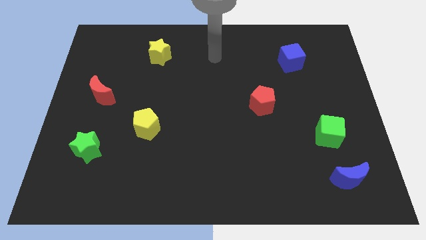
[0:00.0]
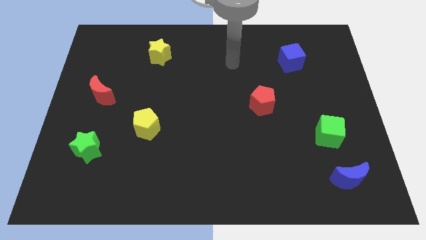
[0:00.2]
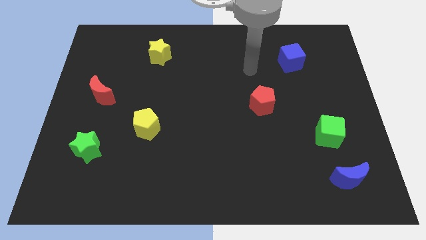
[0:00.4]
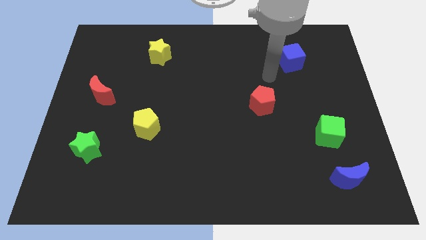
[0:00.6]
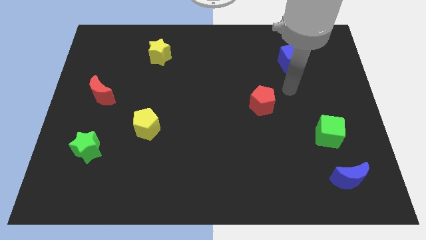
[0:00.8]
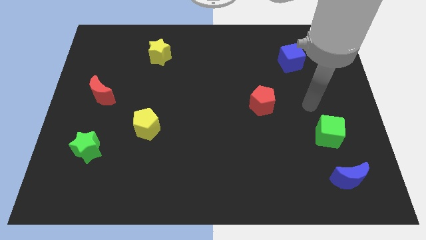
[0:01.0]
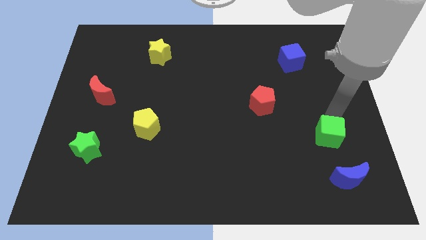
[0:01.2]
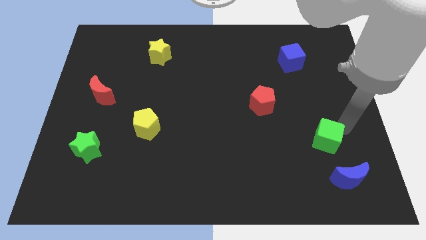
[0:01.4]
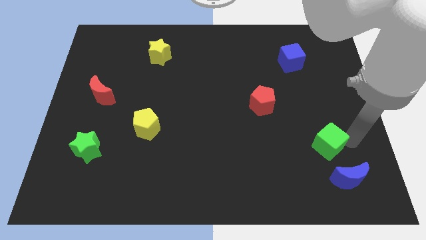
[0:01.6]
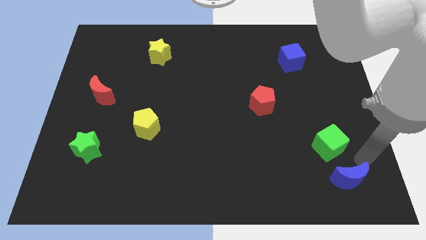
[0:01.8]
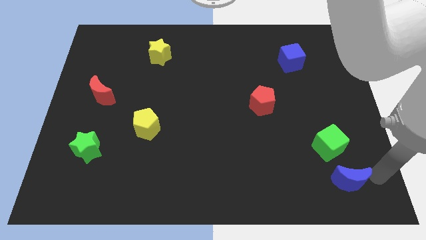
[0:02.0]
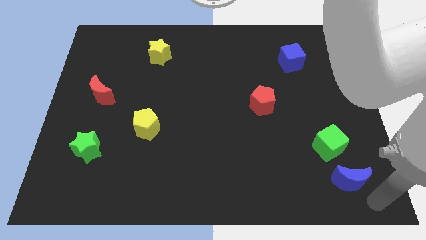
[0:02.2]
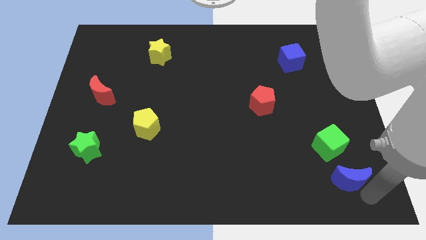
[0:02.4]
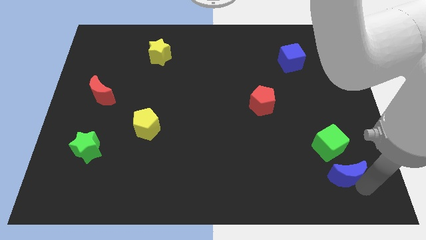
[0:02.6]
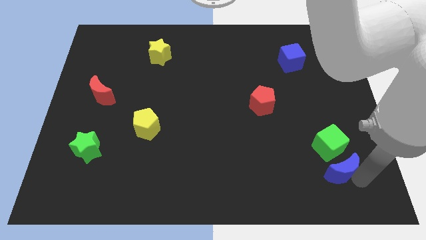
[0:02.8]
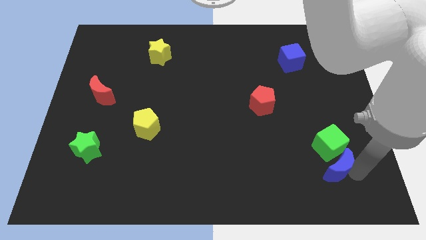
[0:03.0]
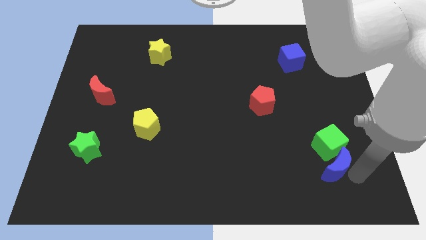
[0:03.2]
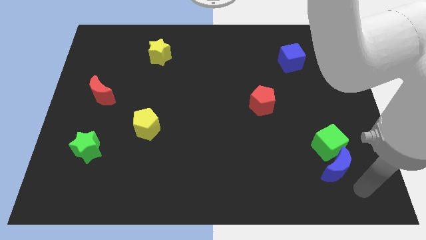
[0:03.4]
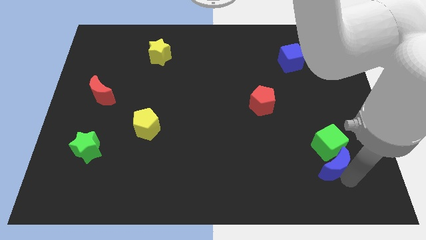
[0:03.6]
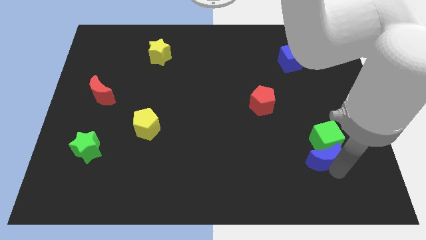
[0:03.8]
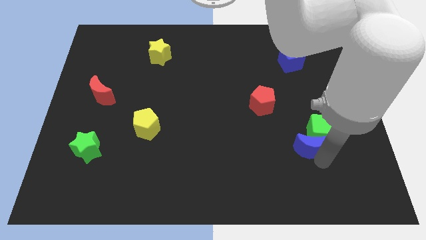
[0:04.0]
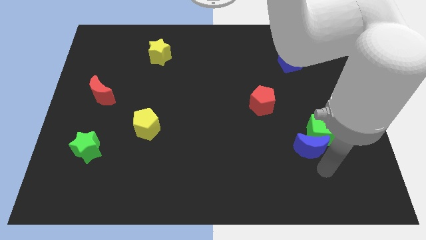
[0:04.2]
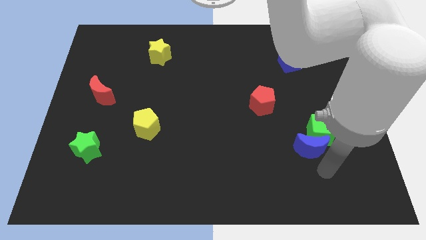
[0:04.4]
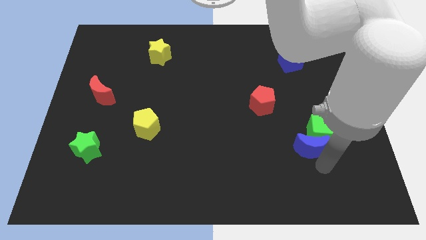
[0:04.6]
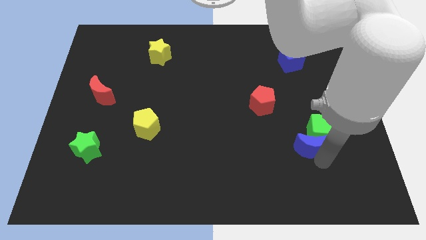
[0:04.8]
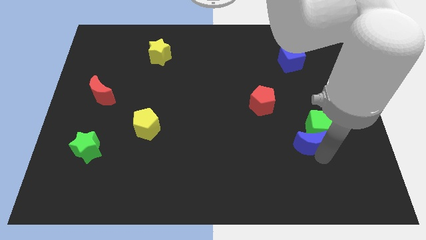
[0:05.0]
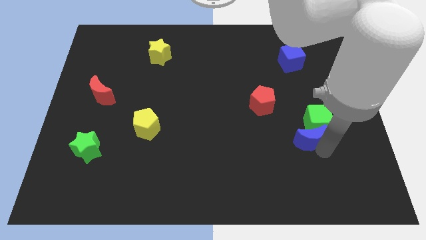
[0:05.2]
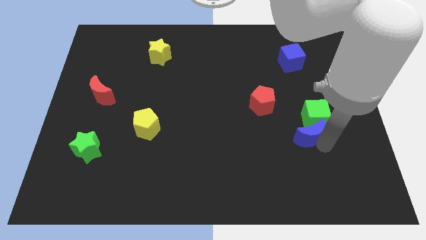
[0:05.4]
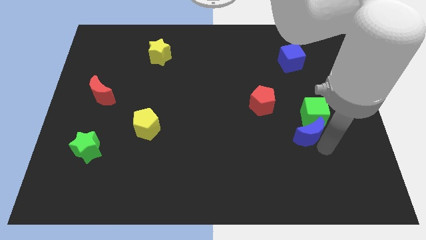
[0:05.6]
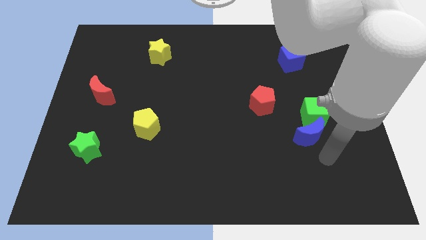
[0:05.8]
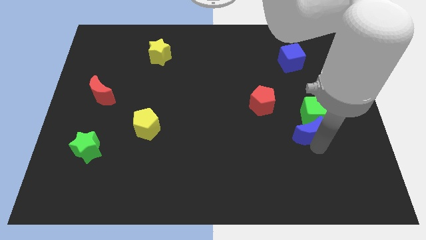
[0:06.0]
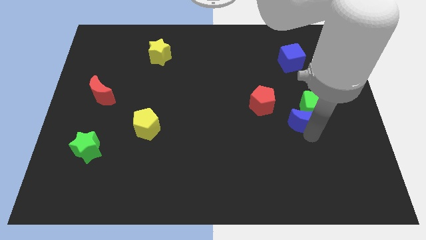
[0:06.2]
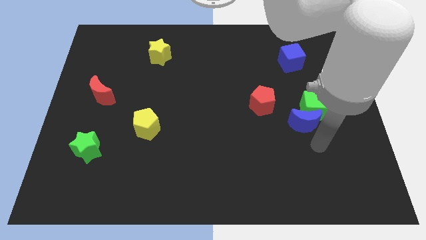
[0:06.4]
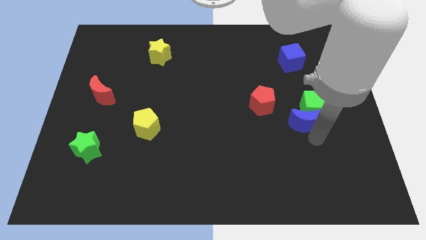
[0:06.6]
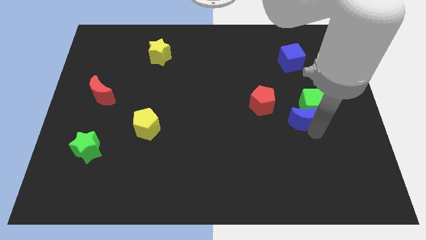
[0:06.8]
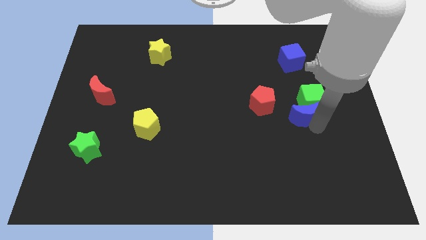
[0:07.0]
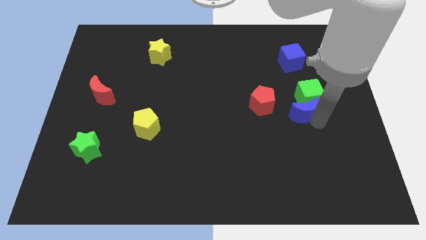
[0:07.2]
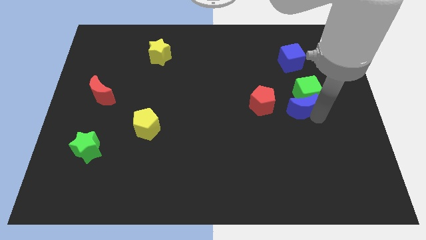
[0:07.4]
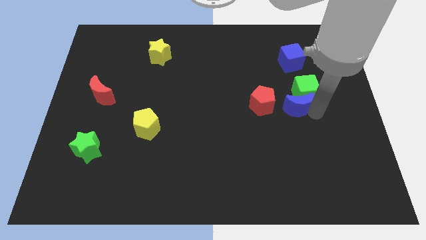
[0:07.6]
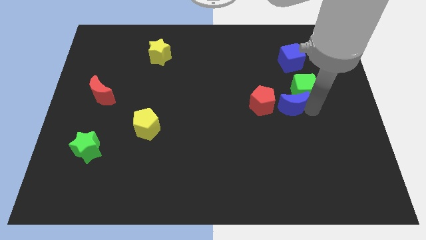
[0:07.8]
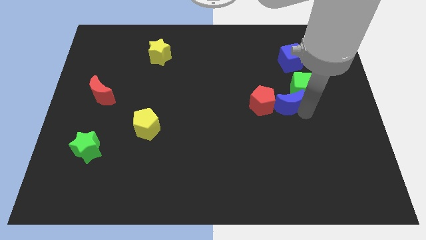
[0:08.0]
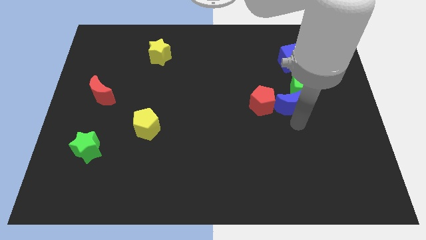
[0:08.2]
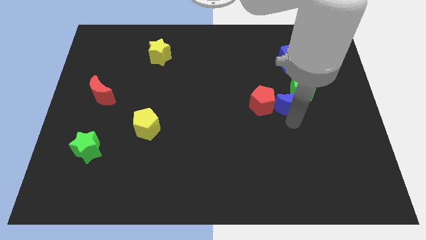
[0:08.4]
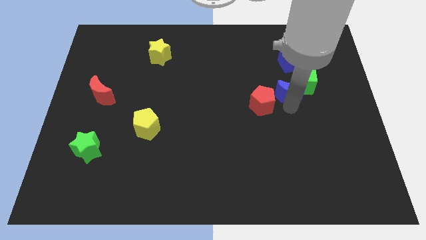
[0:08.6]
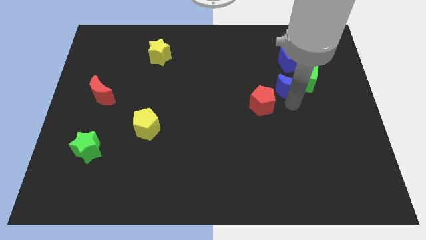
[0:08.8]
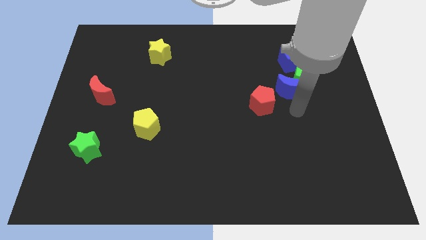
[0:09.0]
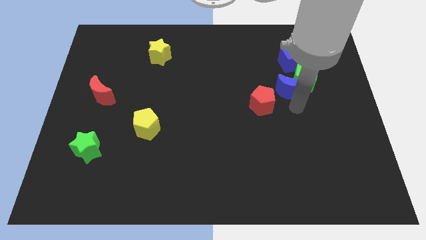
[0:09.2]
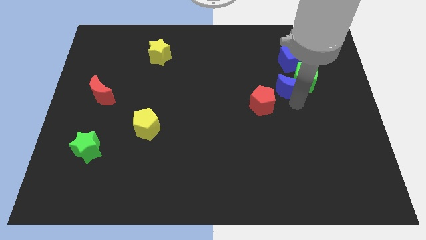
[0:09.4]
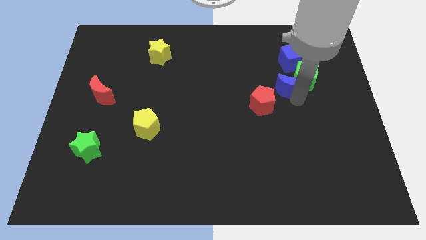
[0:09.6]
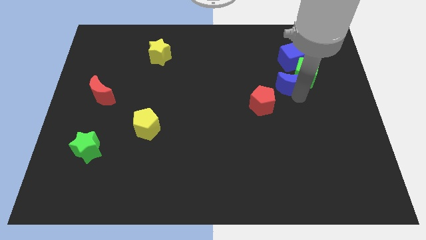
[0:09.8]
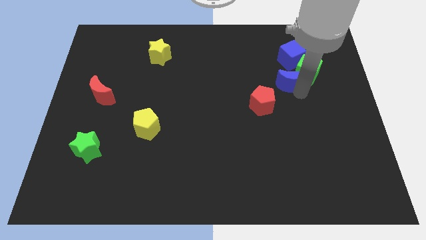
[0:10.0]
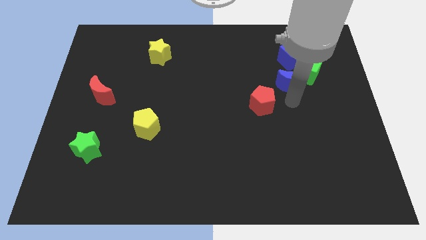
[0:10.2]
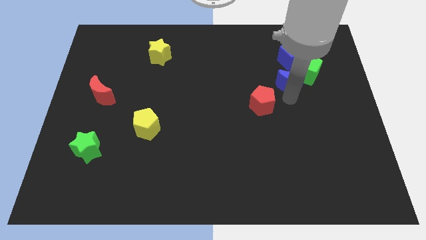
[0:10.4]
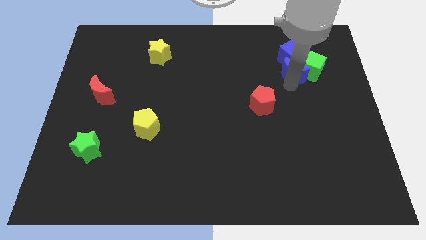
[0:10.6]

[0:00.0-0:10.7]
push the blue moon close to the blue cube

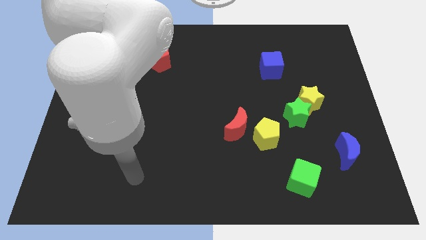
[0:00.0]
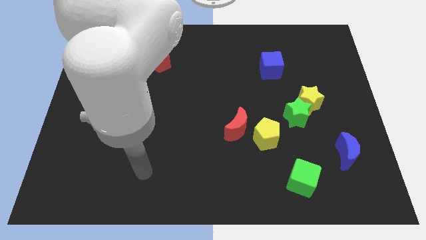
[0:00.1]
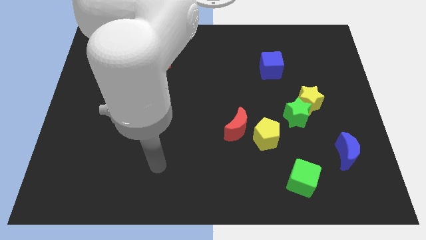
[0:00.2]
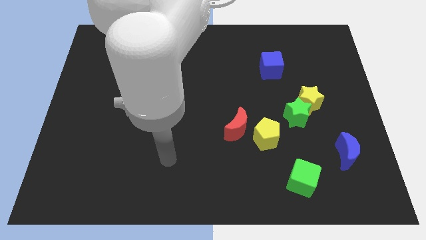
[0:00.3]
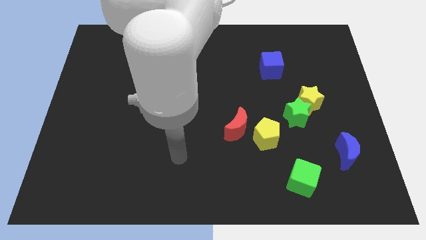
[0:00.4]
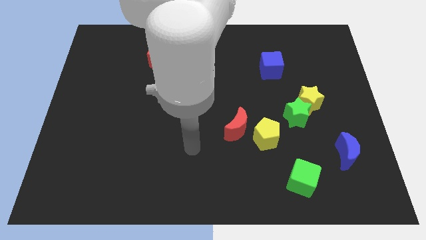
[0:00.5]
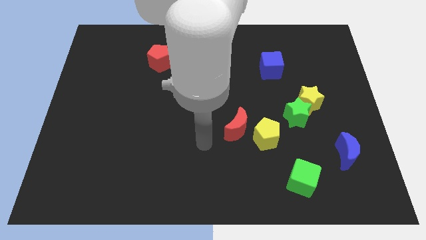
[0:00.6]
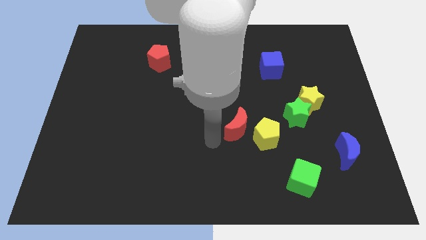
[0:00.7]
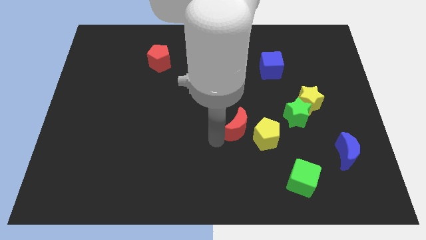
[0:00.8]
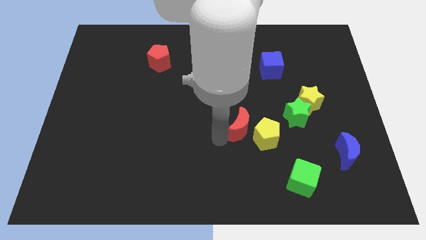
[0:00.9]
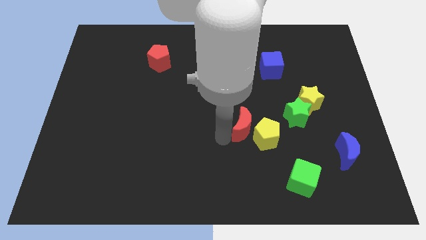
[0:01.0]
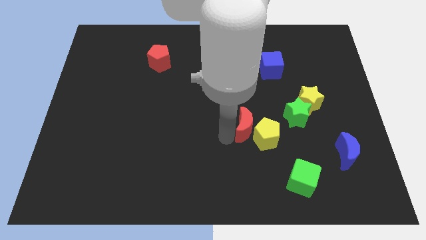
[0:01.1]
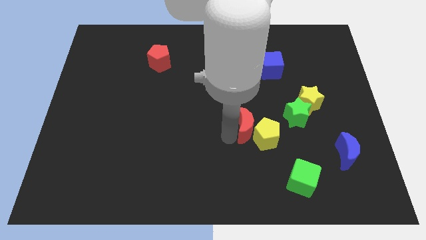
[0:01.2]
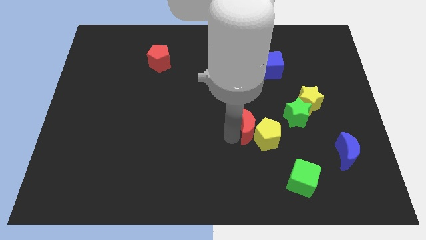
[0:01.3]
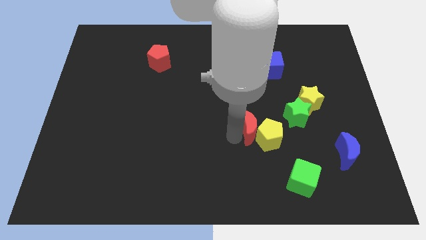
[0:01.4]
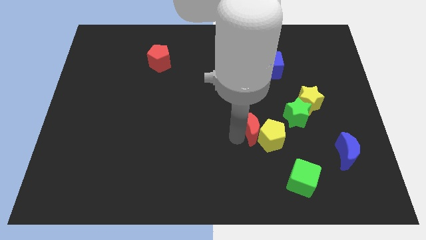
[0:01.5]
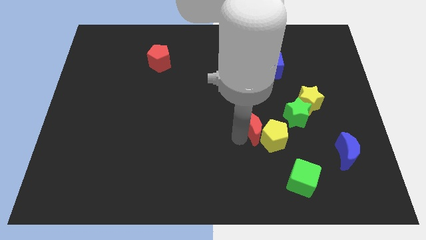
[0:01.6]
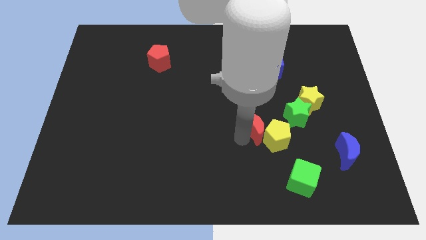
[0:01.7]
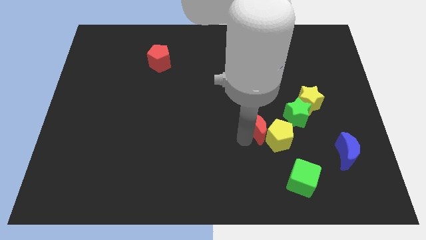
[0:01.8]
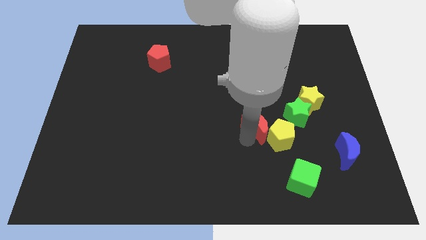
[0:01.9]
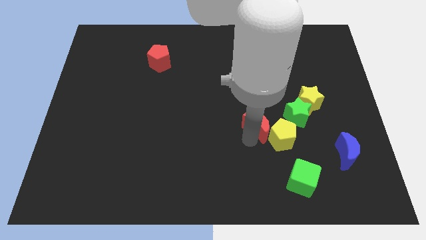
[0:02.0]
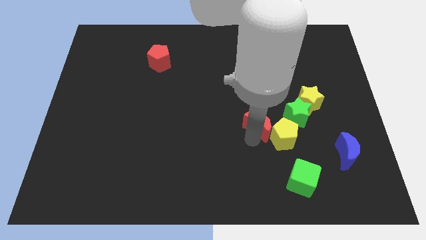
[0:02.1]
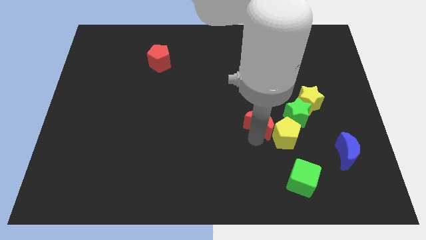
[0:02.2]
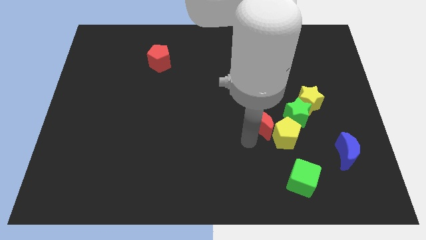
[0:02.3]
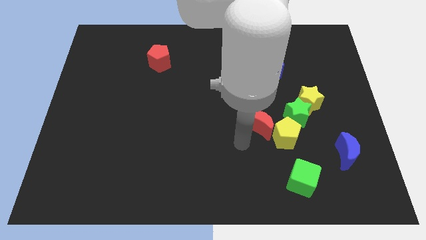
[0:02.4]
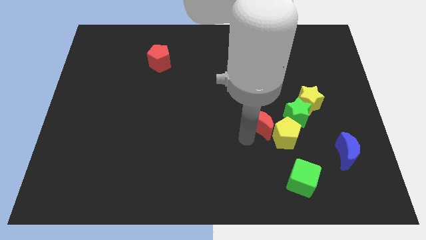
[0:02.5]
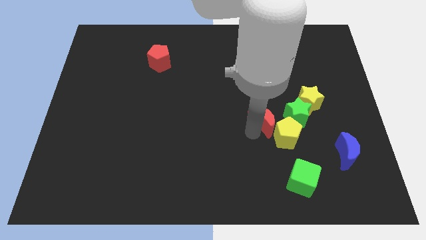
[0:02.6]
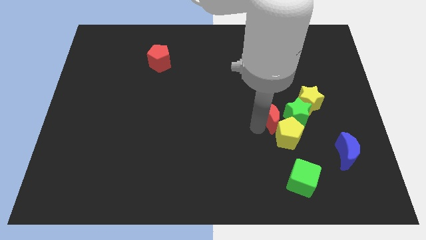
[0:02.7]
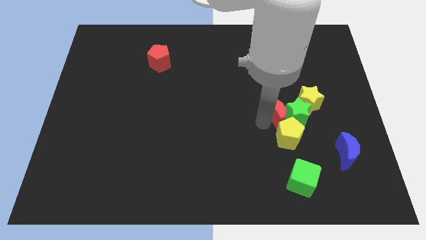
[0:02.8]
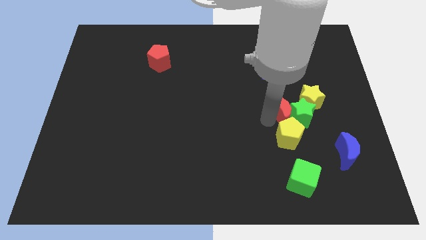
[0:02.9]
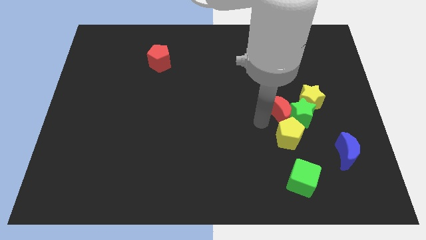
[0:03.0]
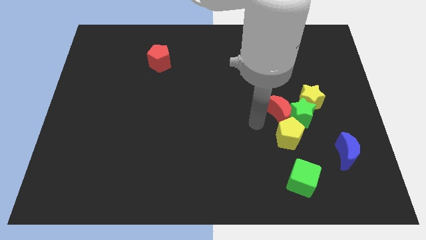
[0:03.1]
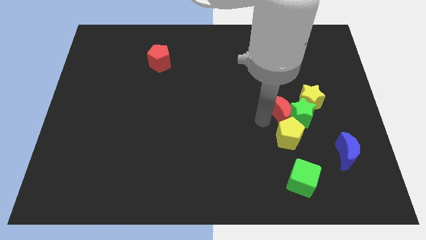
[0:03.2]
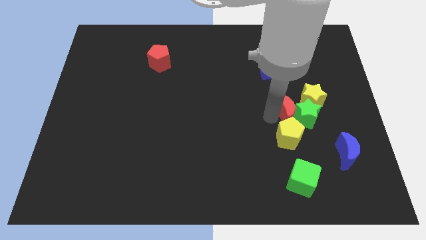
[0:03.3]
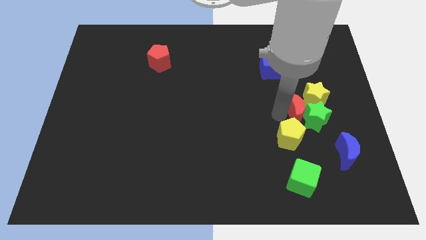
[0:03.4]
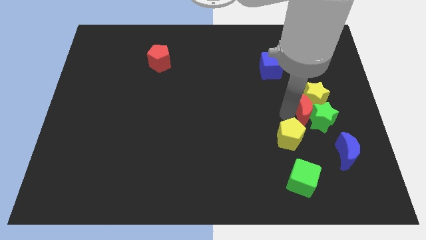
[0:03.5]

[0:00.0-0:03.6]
slide the red moon towards the yellow star
